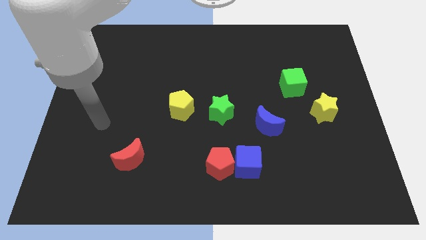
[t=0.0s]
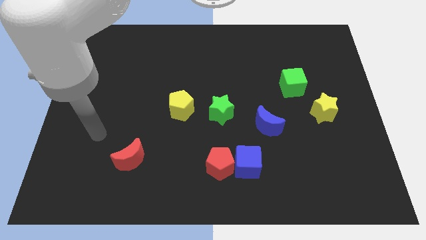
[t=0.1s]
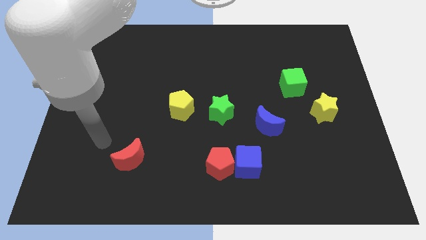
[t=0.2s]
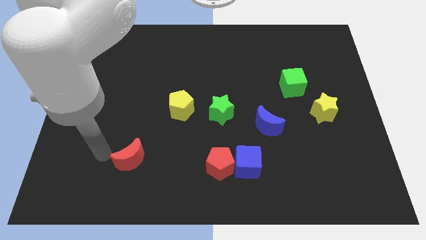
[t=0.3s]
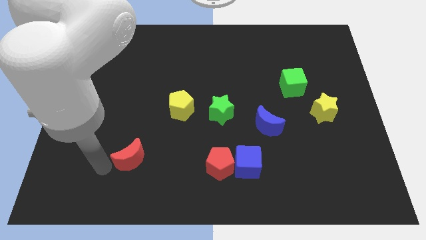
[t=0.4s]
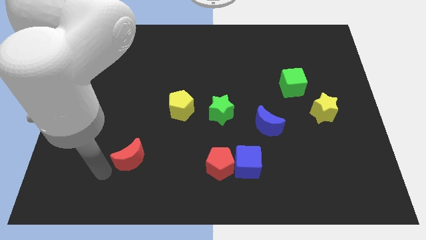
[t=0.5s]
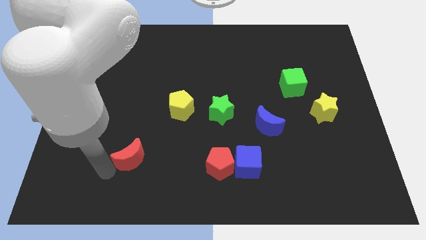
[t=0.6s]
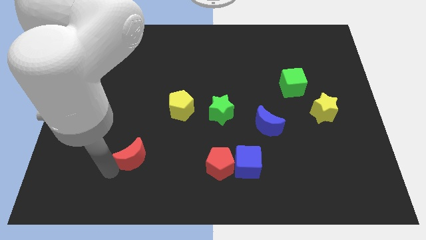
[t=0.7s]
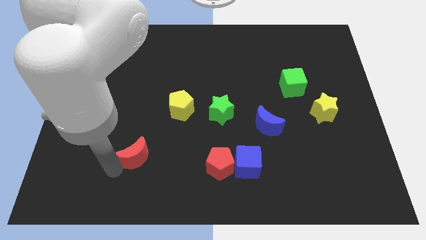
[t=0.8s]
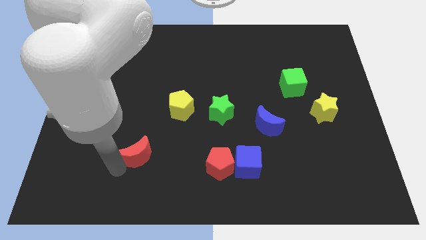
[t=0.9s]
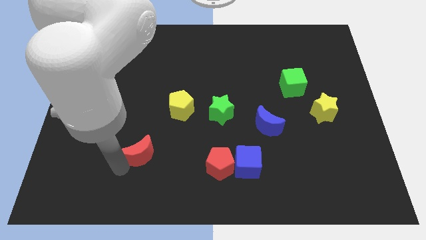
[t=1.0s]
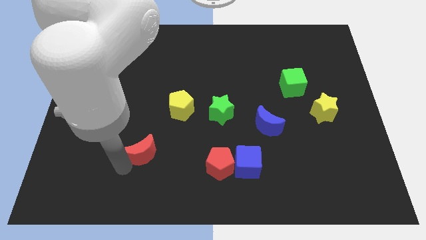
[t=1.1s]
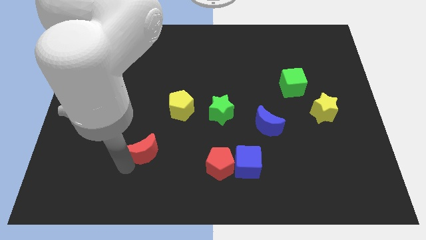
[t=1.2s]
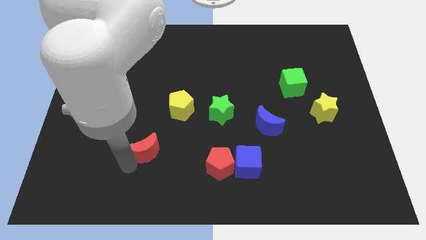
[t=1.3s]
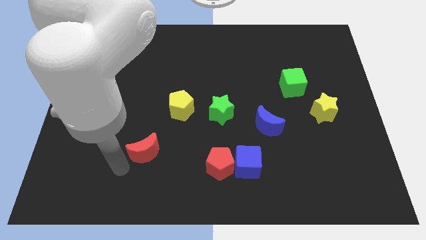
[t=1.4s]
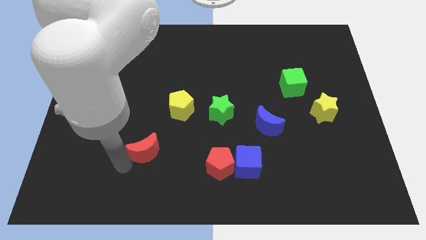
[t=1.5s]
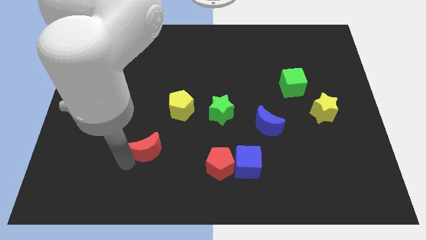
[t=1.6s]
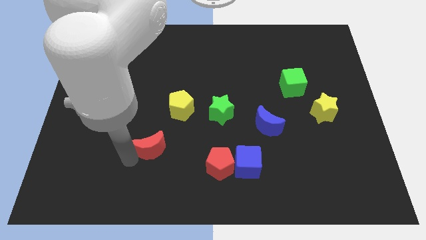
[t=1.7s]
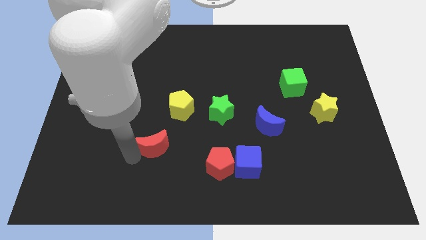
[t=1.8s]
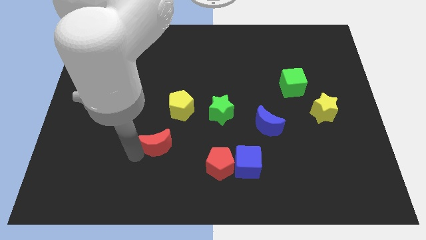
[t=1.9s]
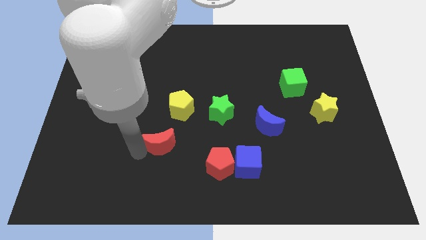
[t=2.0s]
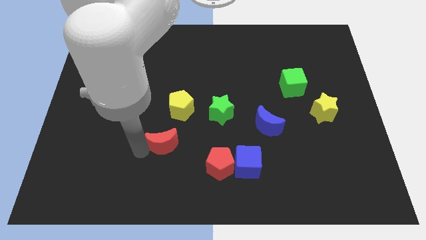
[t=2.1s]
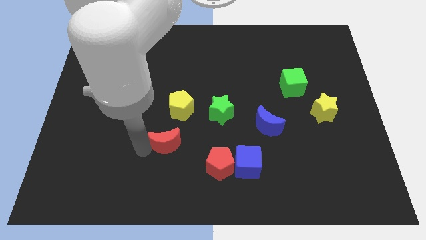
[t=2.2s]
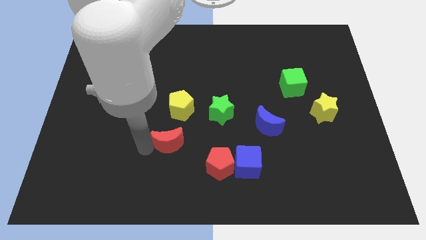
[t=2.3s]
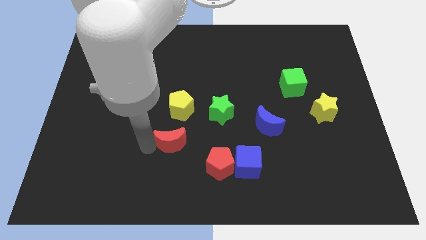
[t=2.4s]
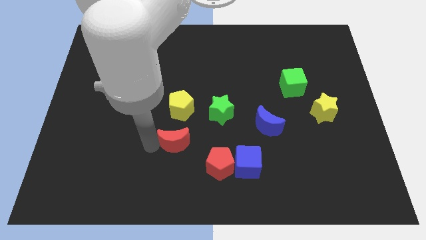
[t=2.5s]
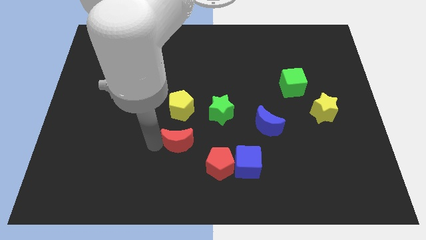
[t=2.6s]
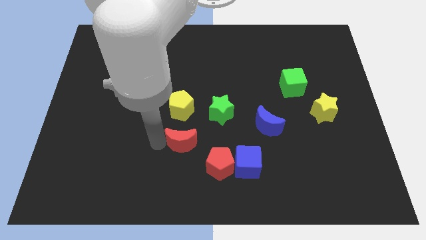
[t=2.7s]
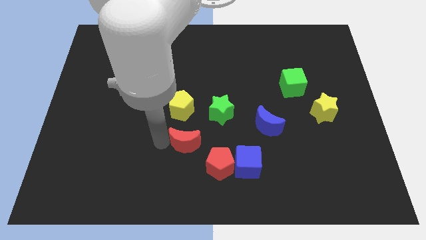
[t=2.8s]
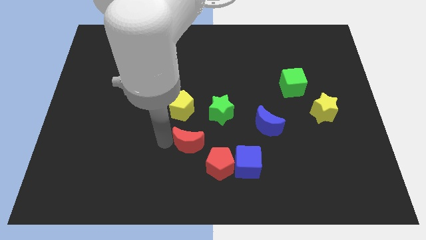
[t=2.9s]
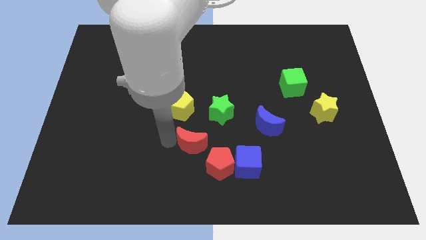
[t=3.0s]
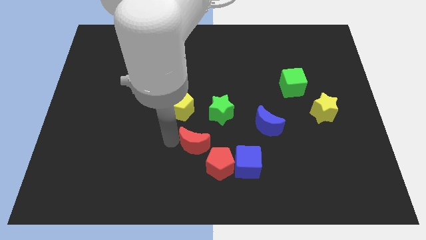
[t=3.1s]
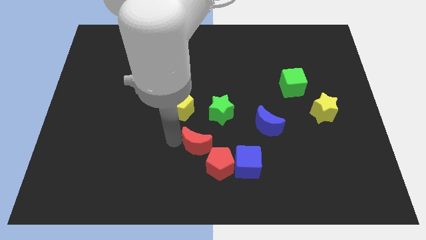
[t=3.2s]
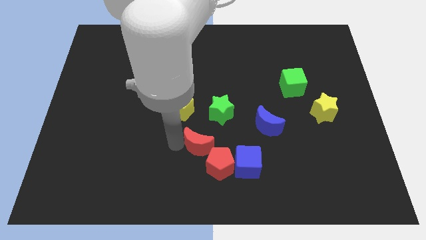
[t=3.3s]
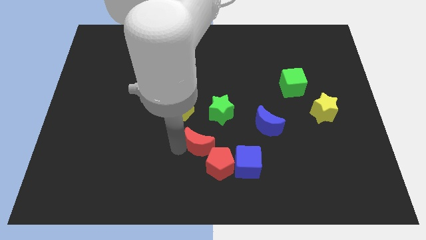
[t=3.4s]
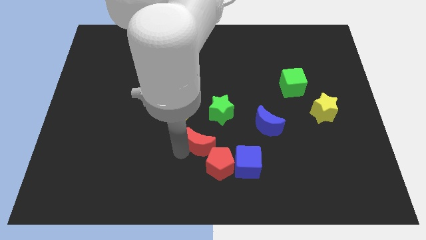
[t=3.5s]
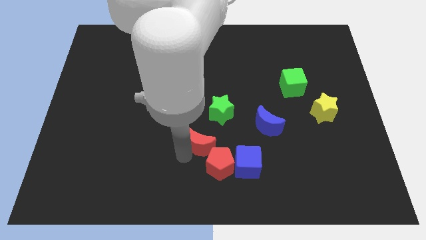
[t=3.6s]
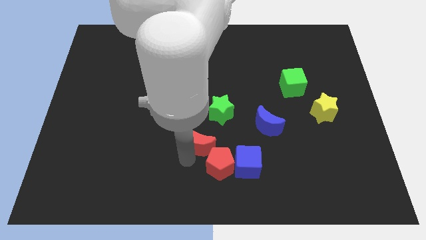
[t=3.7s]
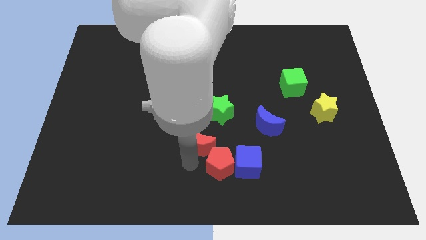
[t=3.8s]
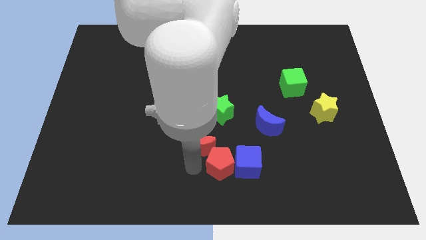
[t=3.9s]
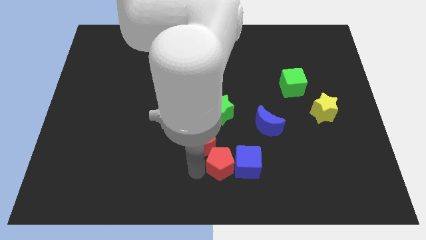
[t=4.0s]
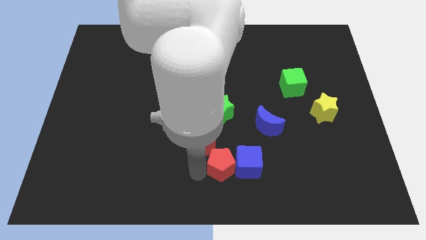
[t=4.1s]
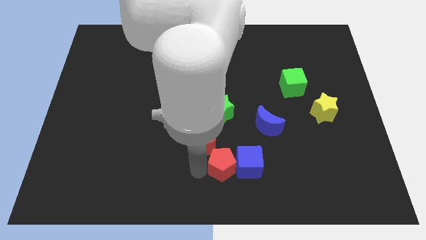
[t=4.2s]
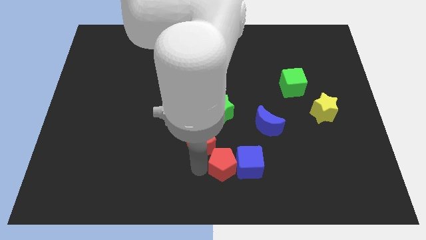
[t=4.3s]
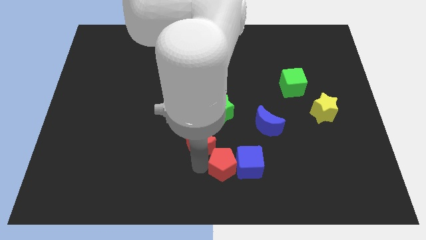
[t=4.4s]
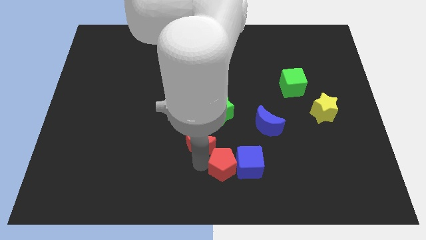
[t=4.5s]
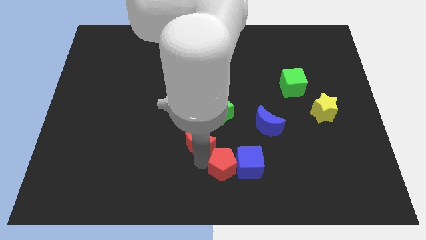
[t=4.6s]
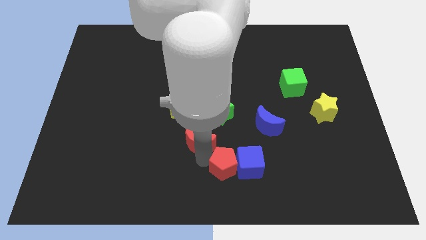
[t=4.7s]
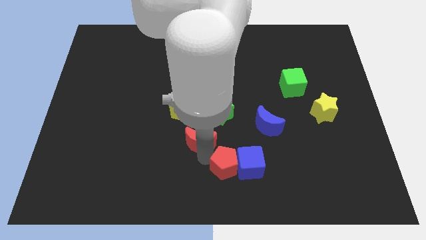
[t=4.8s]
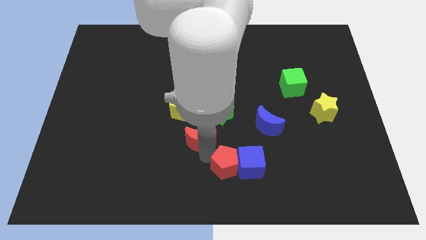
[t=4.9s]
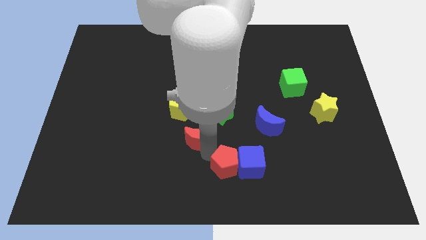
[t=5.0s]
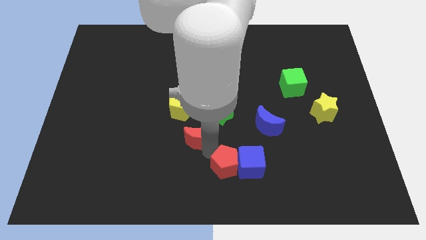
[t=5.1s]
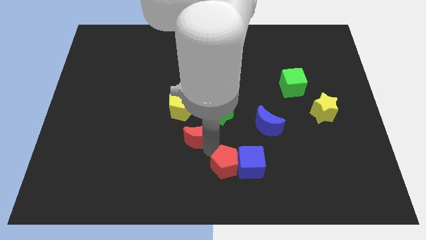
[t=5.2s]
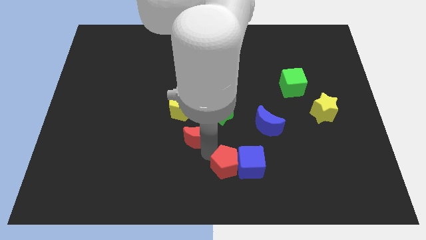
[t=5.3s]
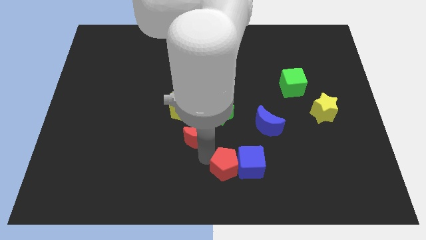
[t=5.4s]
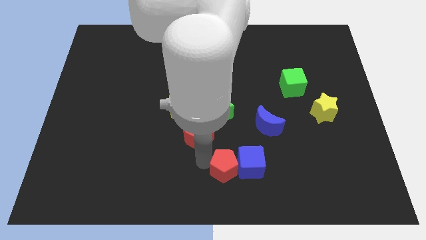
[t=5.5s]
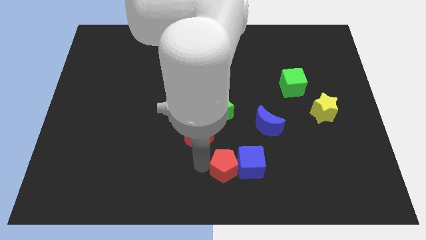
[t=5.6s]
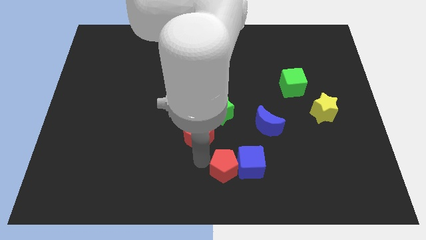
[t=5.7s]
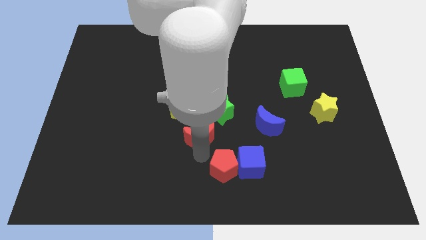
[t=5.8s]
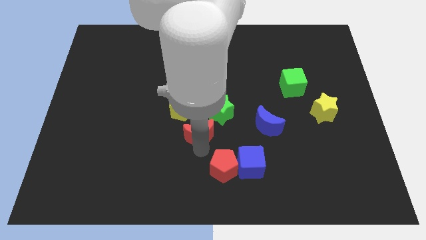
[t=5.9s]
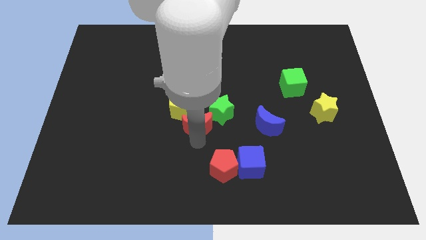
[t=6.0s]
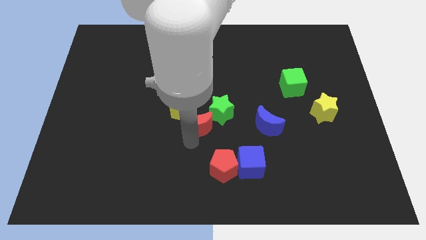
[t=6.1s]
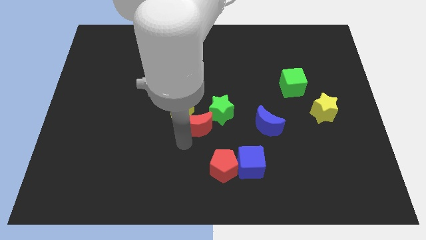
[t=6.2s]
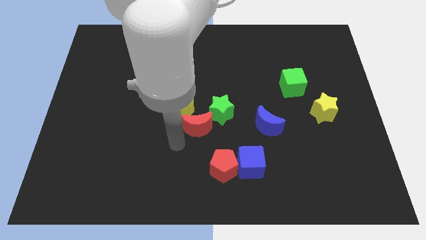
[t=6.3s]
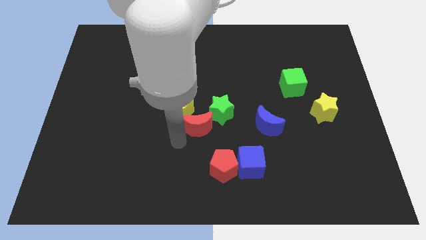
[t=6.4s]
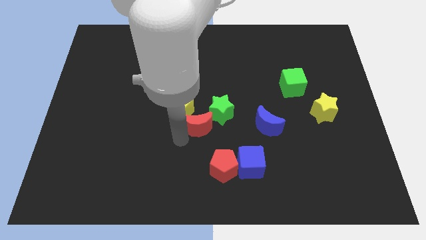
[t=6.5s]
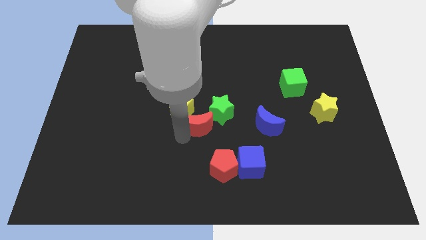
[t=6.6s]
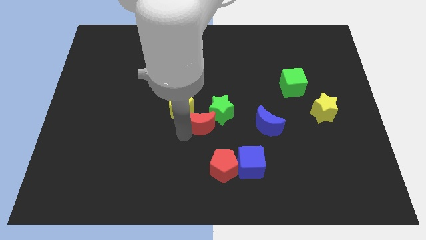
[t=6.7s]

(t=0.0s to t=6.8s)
push the red moon close to the green star

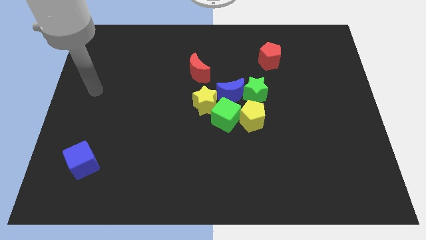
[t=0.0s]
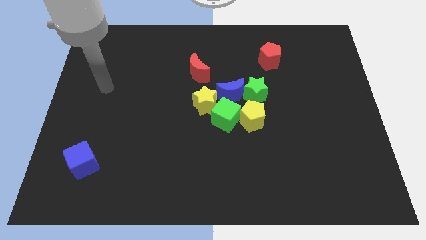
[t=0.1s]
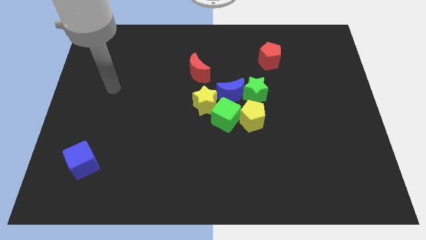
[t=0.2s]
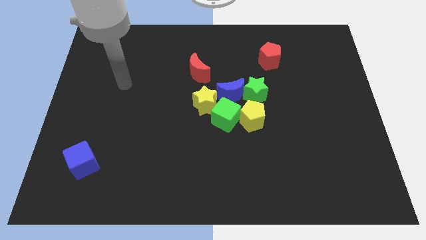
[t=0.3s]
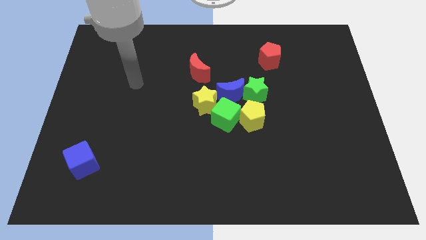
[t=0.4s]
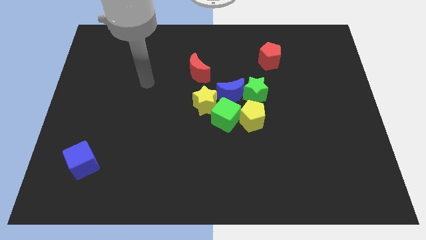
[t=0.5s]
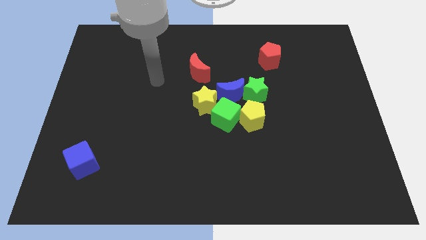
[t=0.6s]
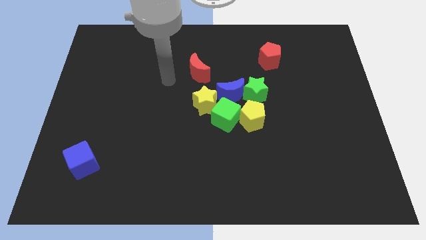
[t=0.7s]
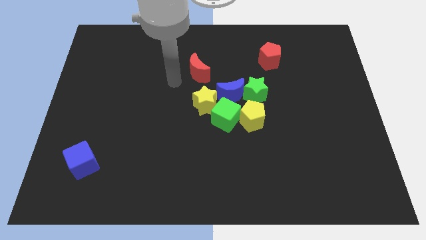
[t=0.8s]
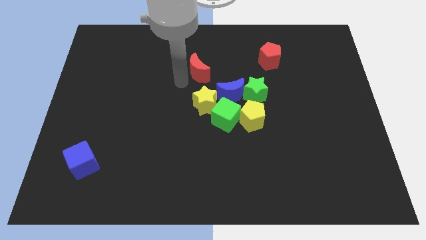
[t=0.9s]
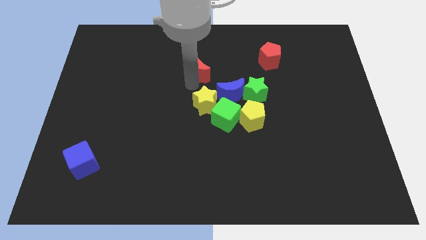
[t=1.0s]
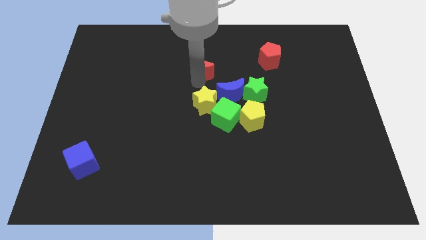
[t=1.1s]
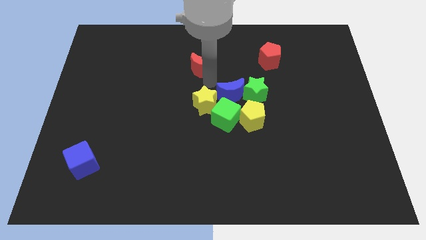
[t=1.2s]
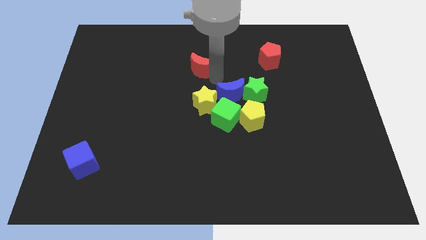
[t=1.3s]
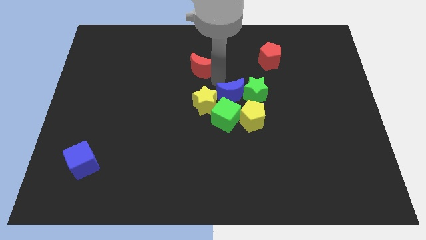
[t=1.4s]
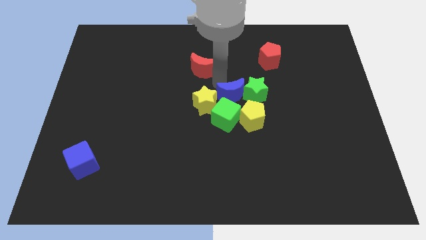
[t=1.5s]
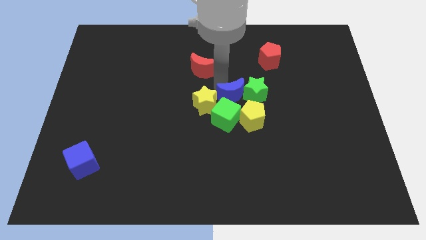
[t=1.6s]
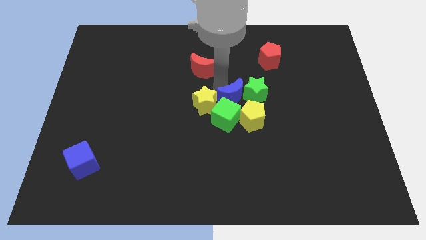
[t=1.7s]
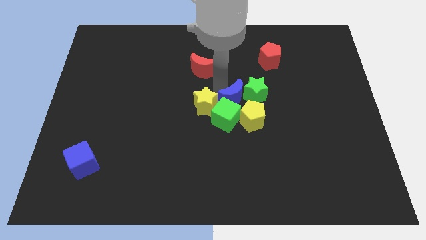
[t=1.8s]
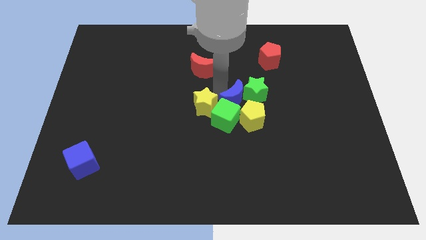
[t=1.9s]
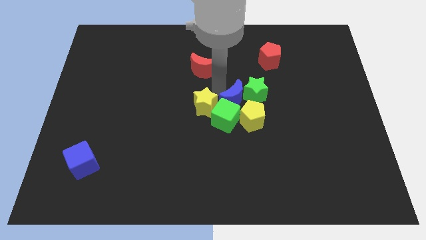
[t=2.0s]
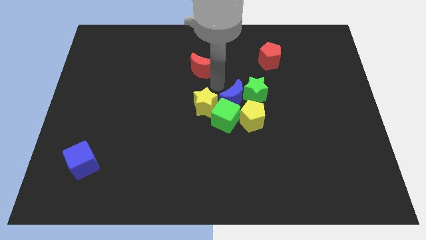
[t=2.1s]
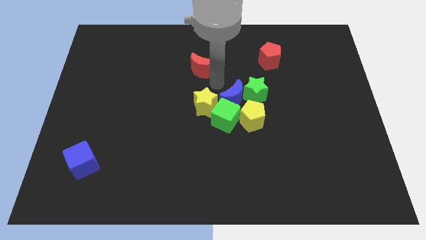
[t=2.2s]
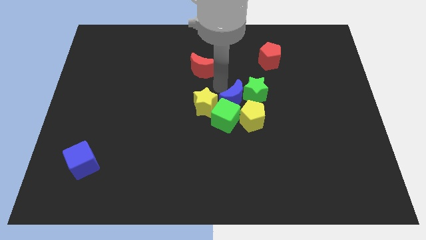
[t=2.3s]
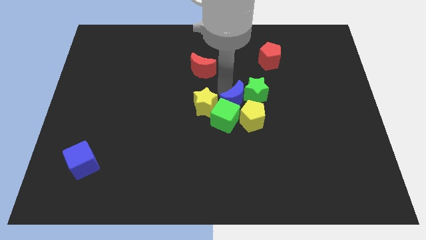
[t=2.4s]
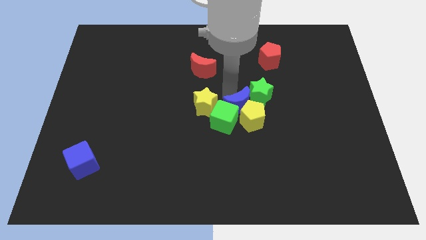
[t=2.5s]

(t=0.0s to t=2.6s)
push the blue moon to the yellow pentagon
